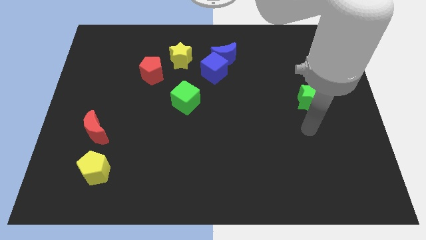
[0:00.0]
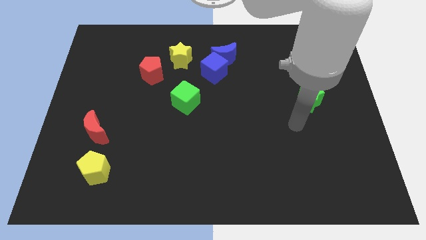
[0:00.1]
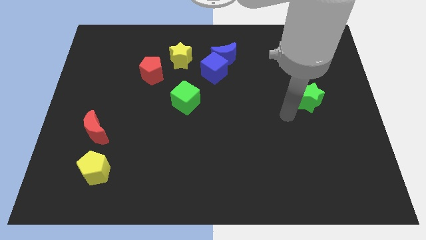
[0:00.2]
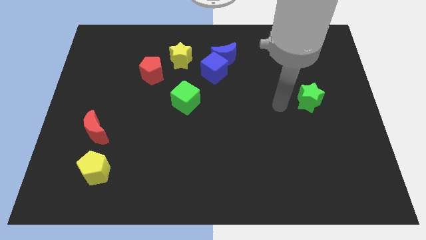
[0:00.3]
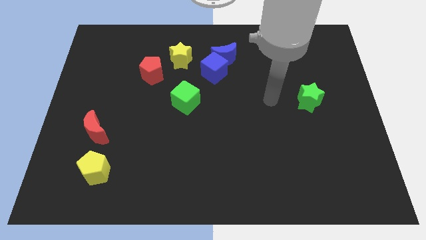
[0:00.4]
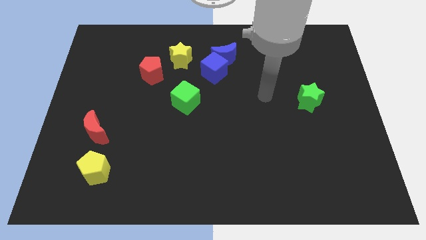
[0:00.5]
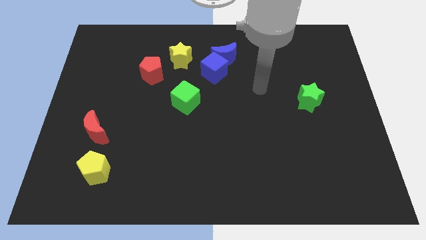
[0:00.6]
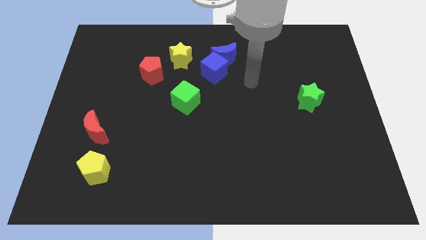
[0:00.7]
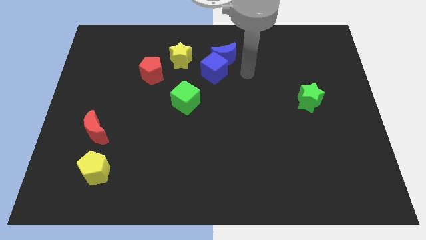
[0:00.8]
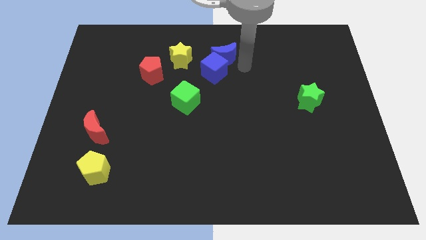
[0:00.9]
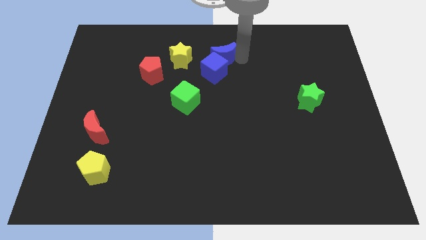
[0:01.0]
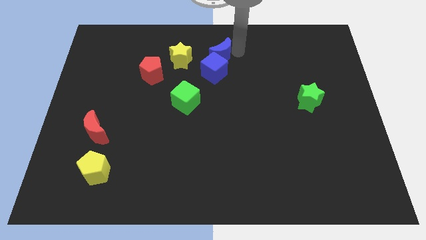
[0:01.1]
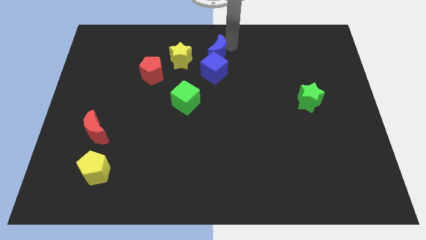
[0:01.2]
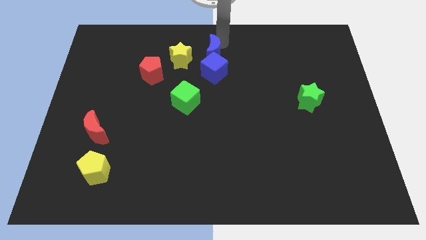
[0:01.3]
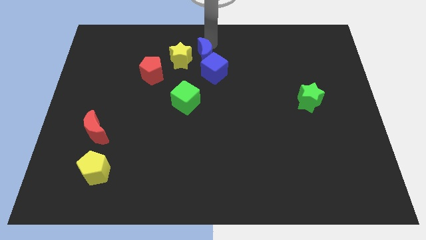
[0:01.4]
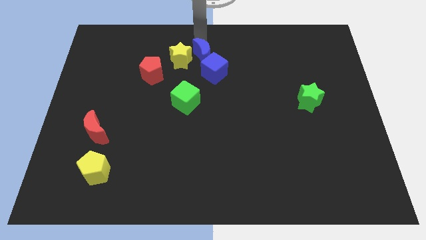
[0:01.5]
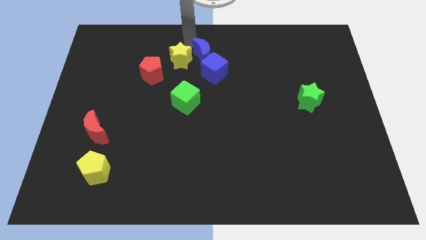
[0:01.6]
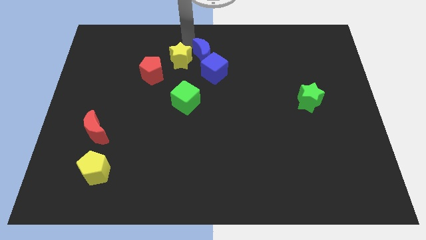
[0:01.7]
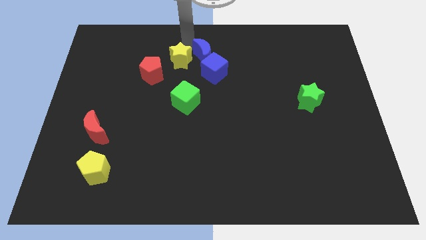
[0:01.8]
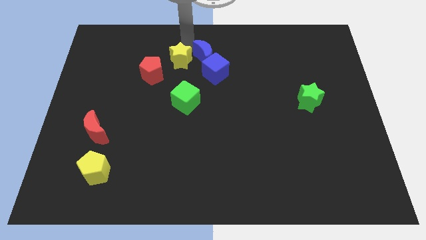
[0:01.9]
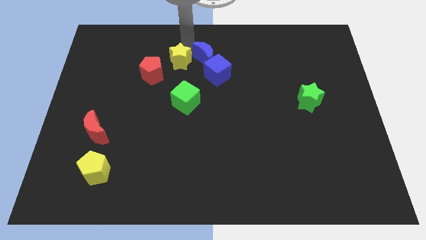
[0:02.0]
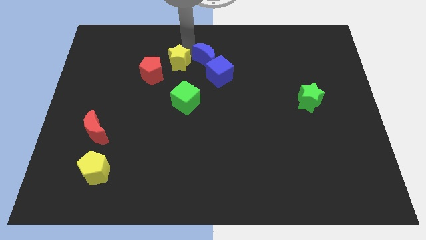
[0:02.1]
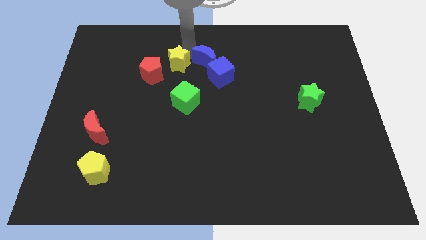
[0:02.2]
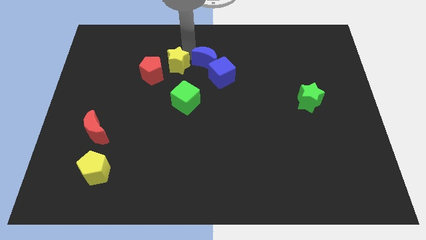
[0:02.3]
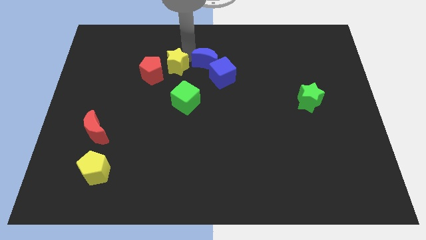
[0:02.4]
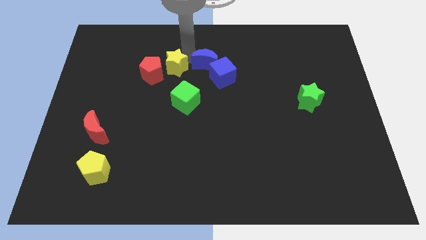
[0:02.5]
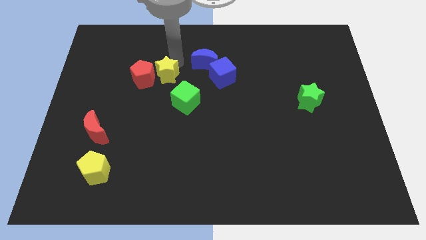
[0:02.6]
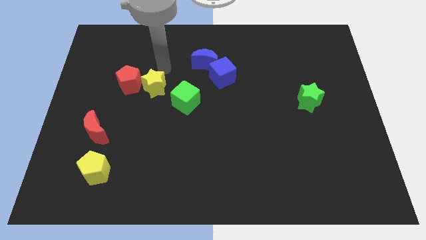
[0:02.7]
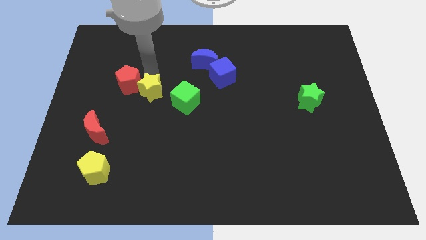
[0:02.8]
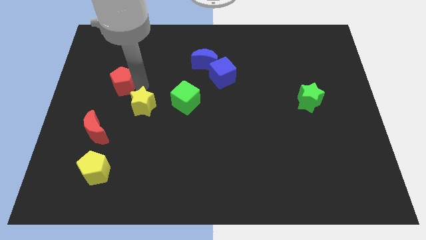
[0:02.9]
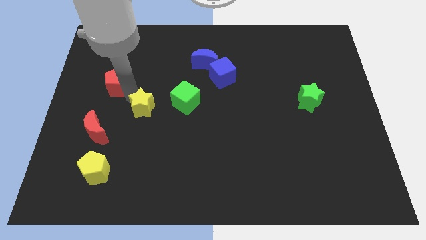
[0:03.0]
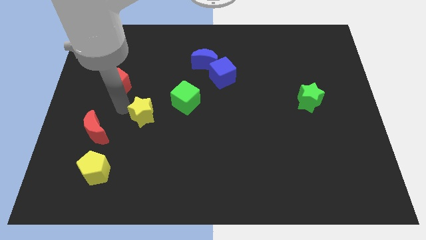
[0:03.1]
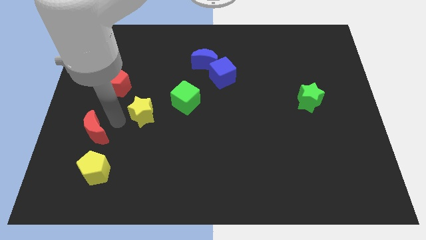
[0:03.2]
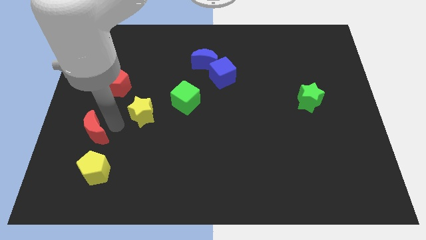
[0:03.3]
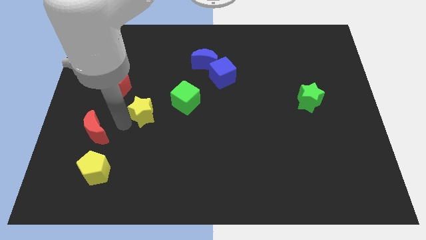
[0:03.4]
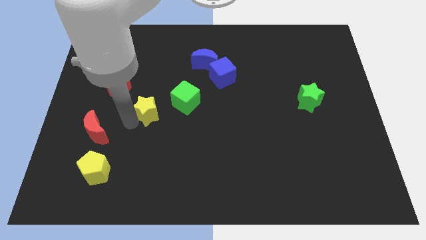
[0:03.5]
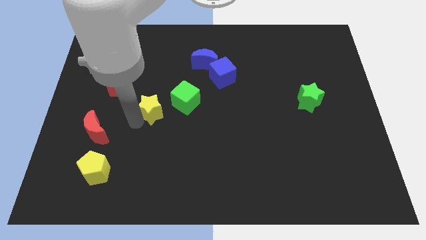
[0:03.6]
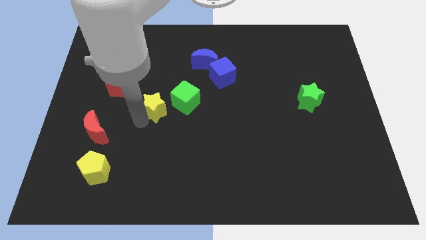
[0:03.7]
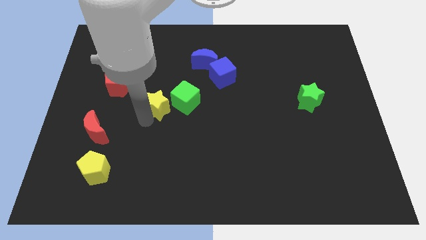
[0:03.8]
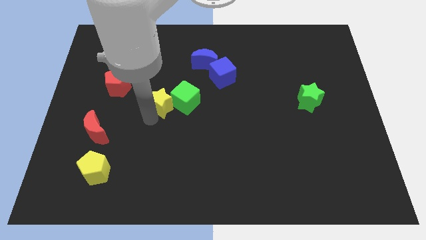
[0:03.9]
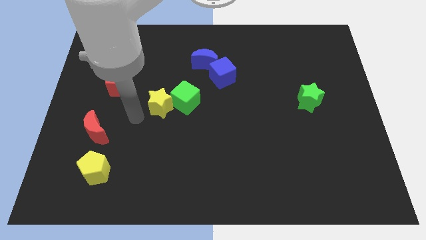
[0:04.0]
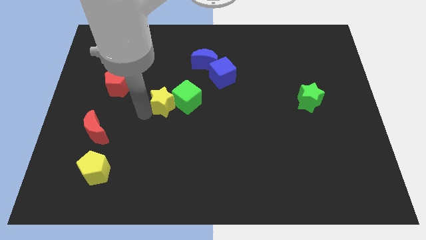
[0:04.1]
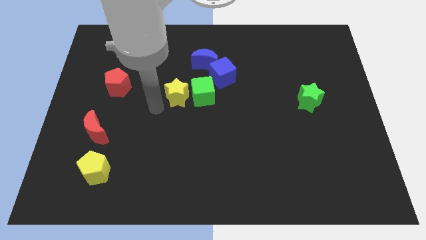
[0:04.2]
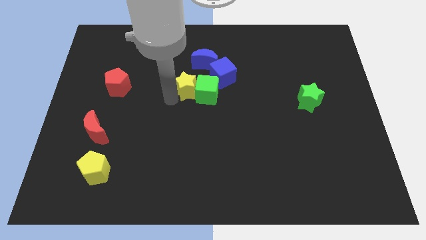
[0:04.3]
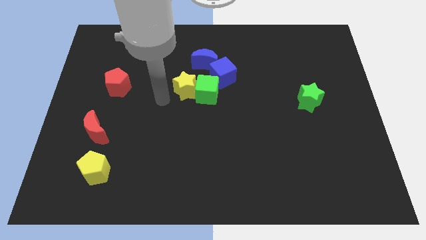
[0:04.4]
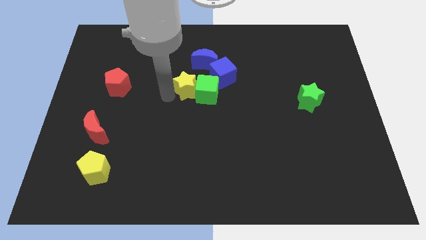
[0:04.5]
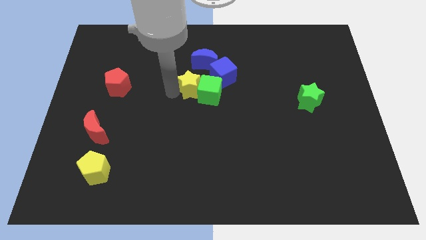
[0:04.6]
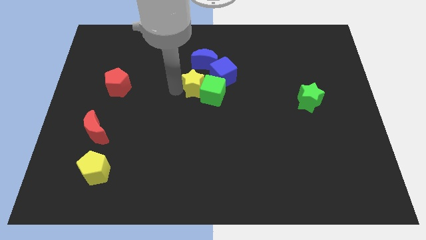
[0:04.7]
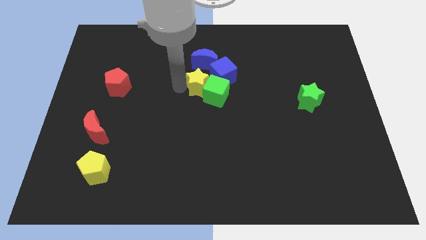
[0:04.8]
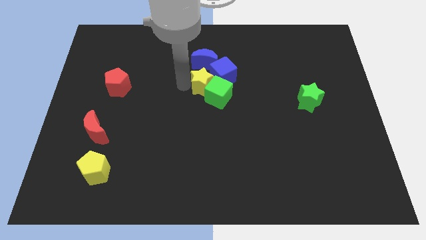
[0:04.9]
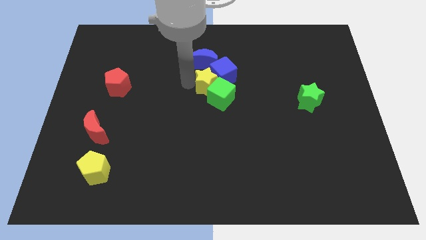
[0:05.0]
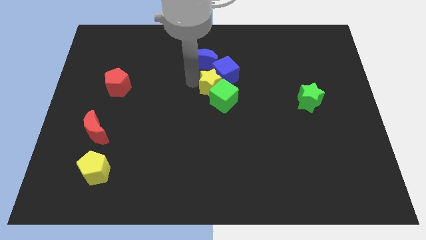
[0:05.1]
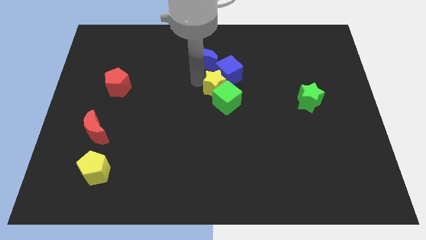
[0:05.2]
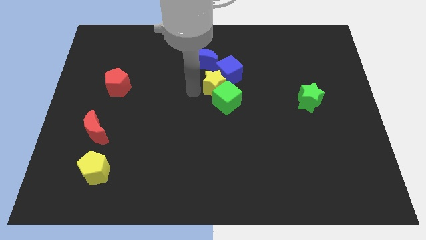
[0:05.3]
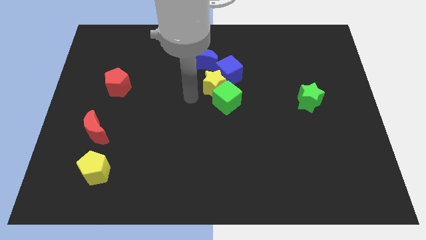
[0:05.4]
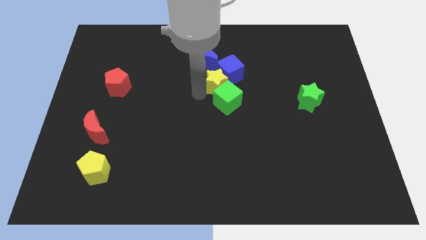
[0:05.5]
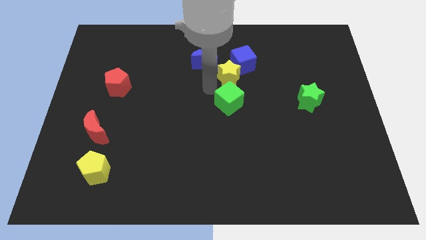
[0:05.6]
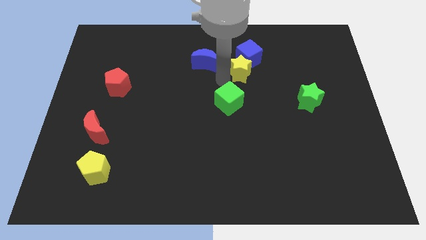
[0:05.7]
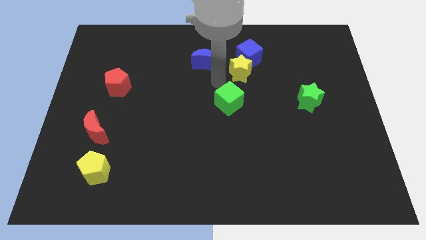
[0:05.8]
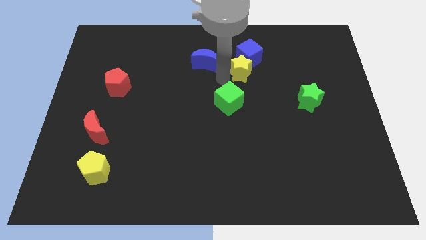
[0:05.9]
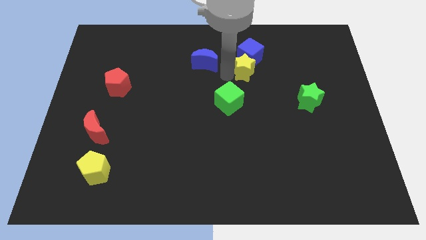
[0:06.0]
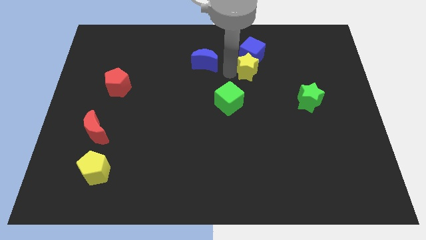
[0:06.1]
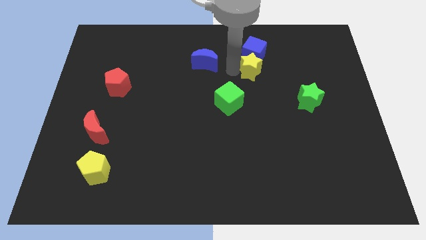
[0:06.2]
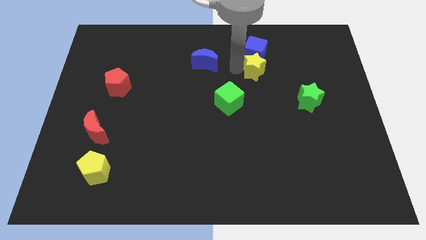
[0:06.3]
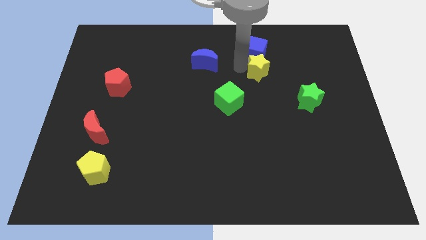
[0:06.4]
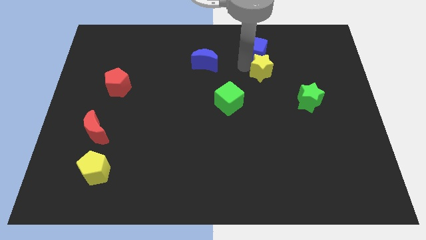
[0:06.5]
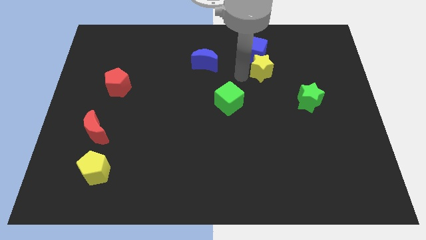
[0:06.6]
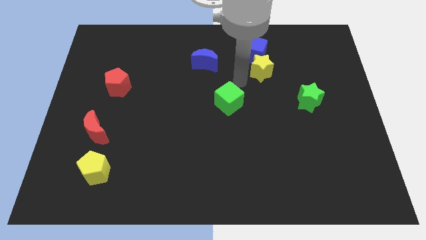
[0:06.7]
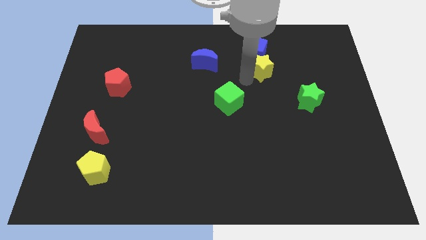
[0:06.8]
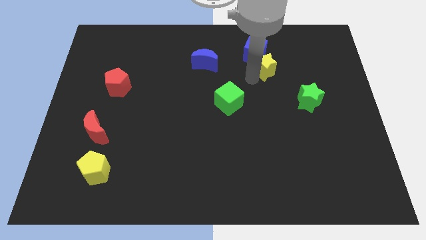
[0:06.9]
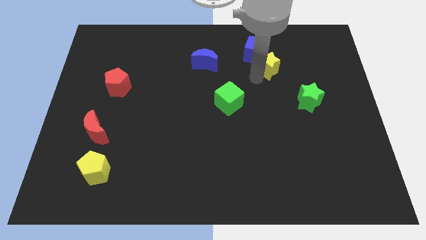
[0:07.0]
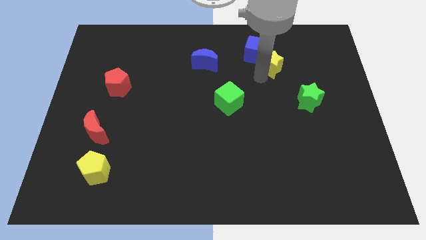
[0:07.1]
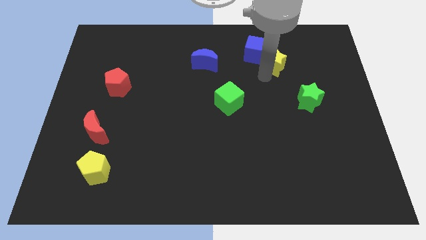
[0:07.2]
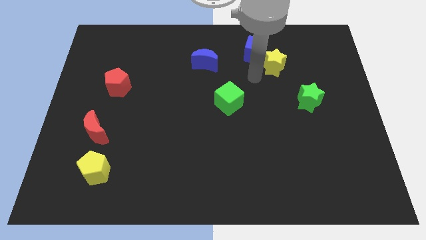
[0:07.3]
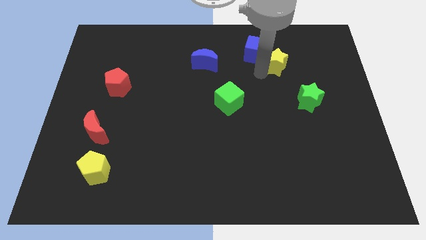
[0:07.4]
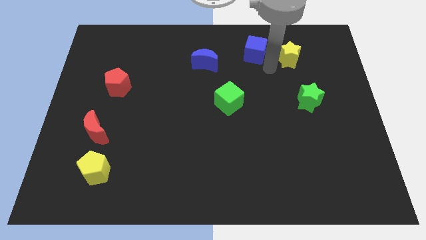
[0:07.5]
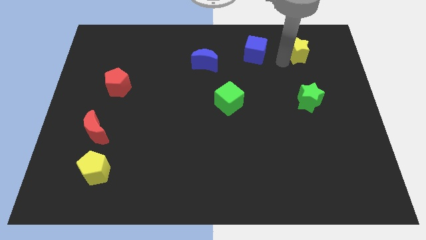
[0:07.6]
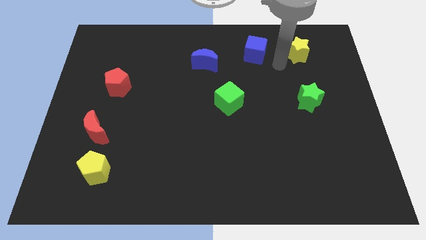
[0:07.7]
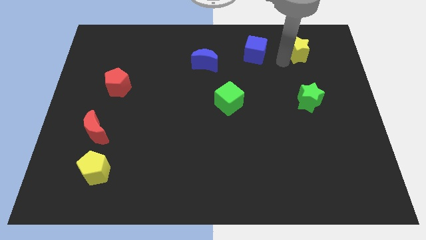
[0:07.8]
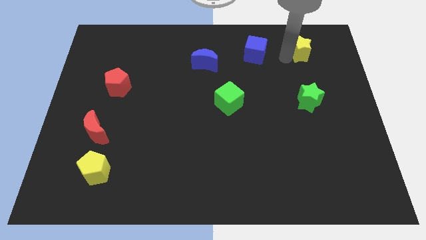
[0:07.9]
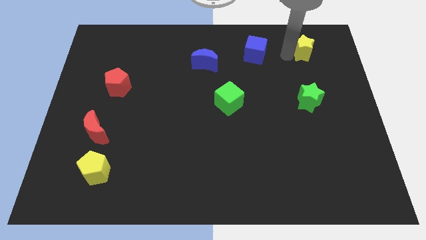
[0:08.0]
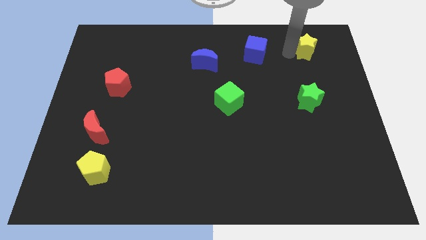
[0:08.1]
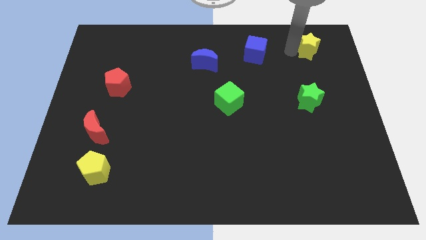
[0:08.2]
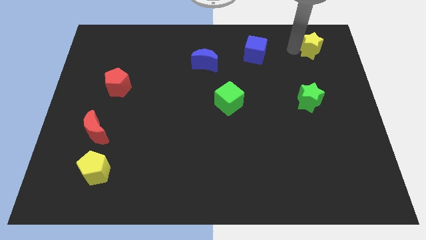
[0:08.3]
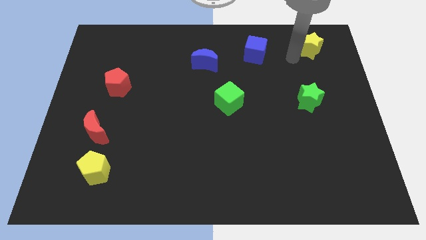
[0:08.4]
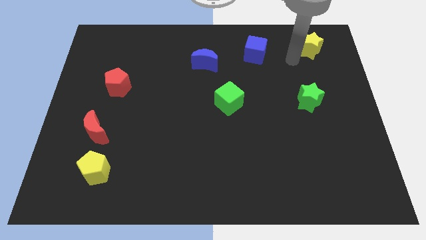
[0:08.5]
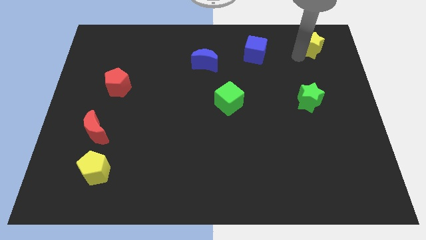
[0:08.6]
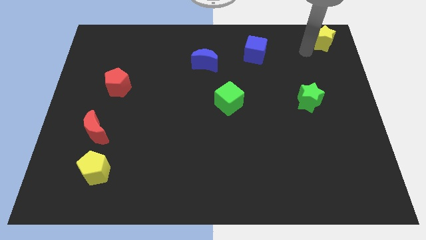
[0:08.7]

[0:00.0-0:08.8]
slide the yellow star to the top right of the board
